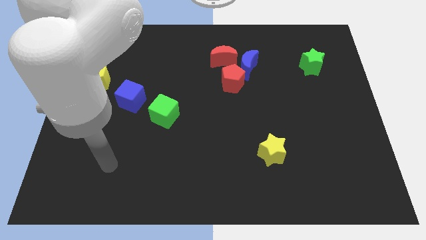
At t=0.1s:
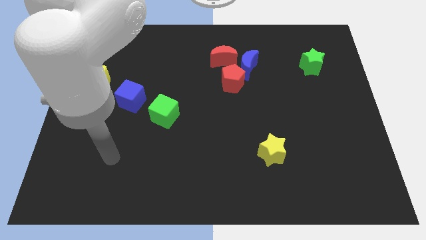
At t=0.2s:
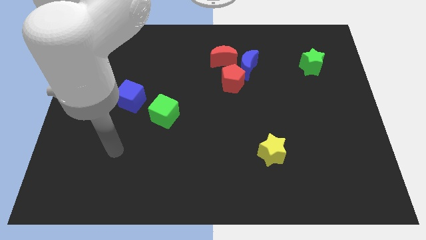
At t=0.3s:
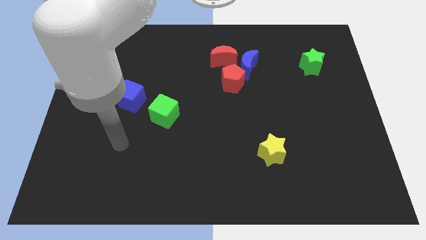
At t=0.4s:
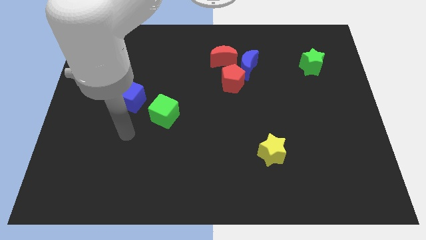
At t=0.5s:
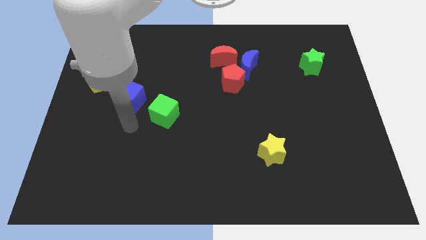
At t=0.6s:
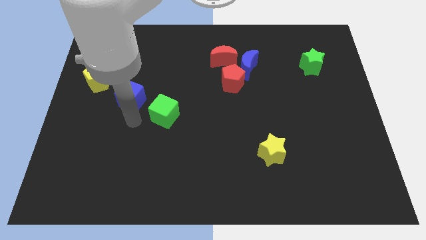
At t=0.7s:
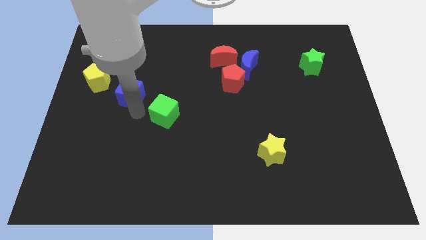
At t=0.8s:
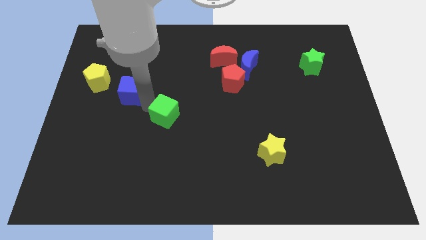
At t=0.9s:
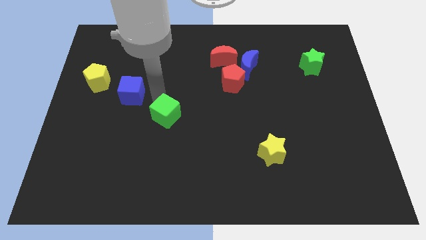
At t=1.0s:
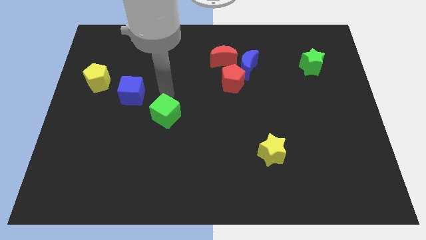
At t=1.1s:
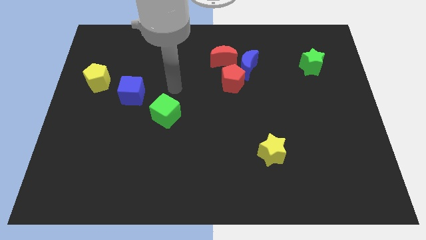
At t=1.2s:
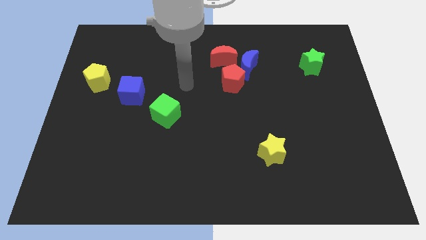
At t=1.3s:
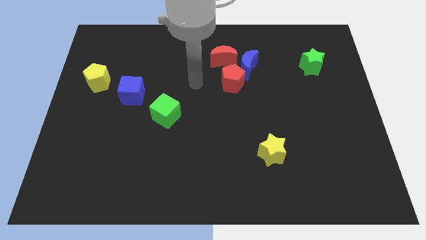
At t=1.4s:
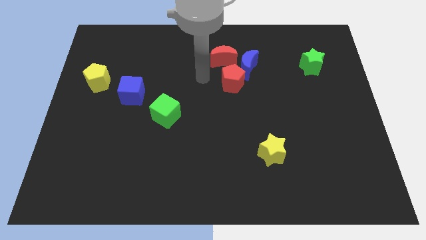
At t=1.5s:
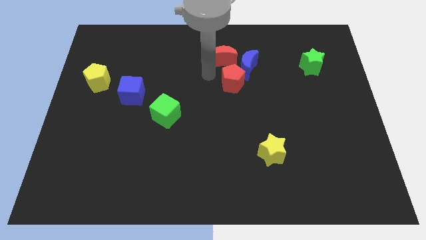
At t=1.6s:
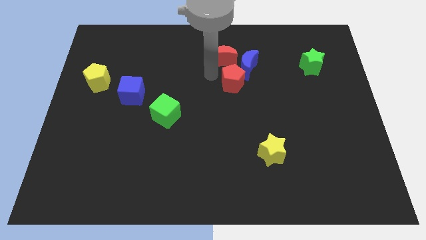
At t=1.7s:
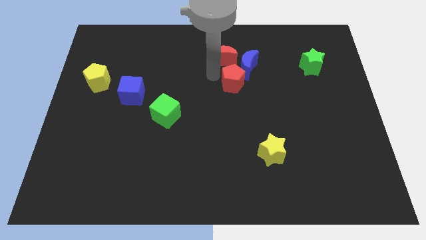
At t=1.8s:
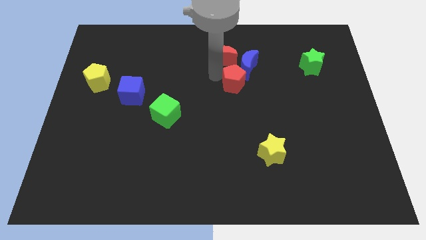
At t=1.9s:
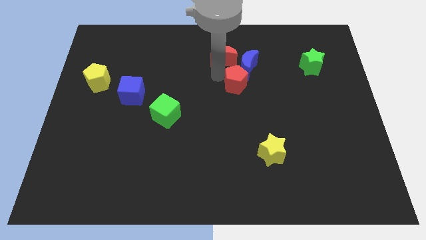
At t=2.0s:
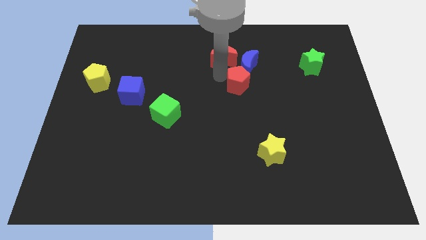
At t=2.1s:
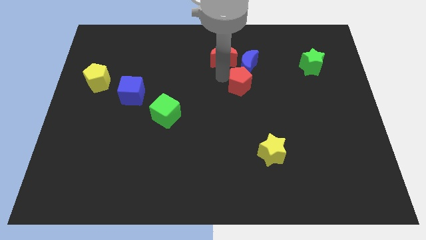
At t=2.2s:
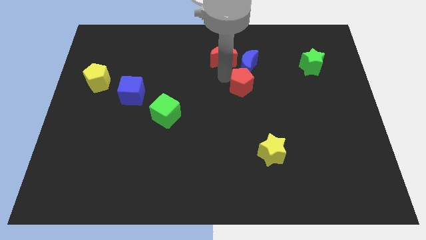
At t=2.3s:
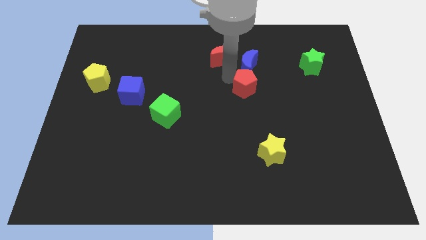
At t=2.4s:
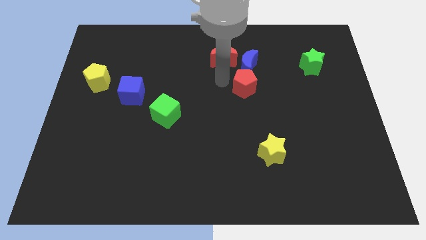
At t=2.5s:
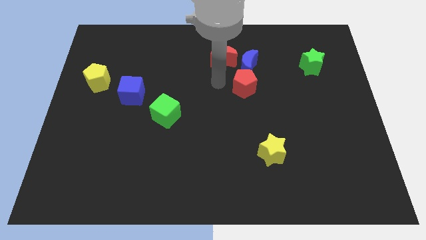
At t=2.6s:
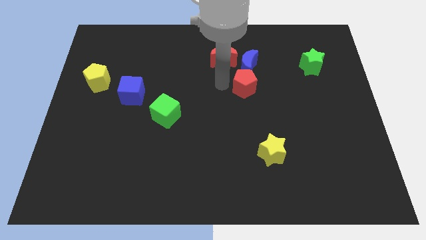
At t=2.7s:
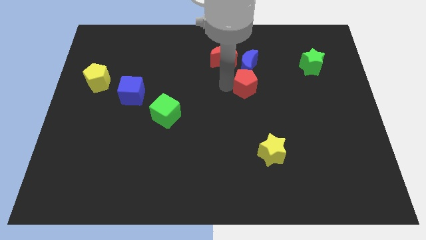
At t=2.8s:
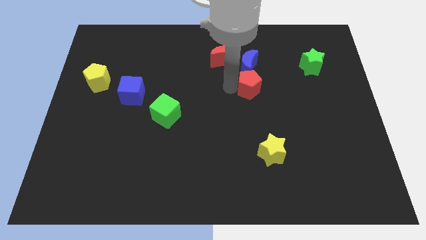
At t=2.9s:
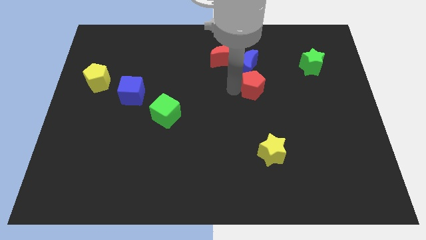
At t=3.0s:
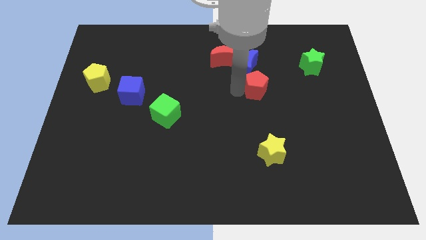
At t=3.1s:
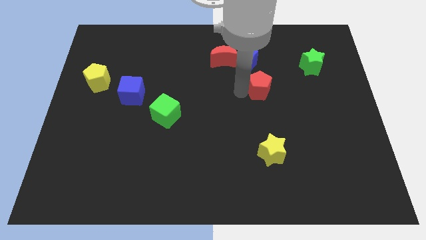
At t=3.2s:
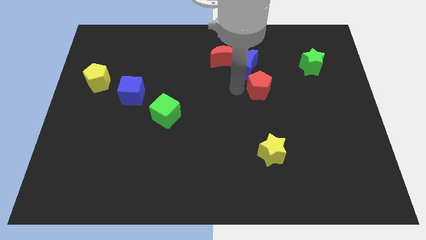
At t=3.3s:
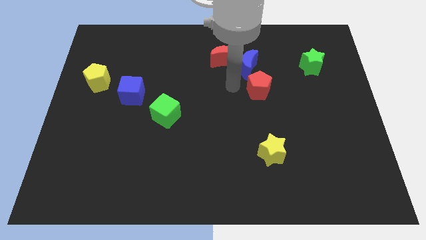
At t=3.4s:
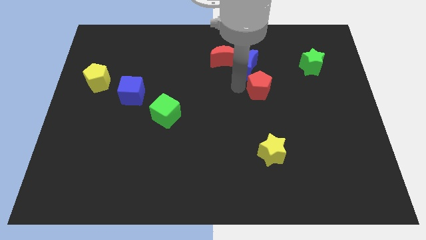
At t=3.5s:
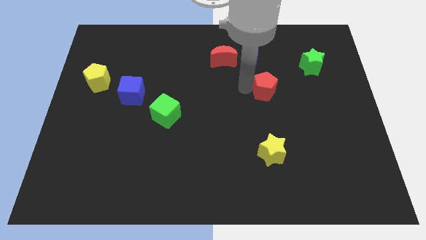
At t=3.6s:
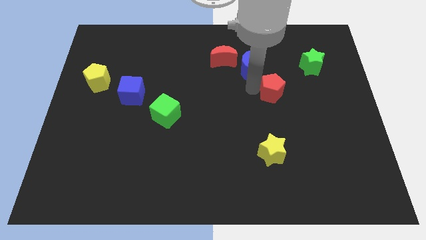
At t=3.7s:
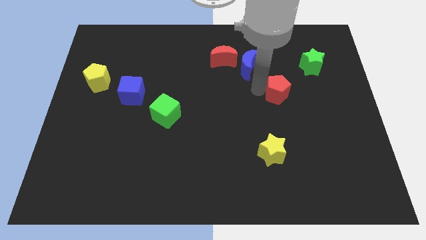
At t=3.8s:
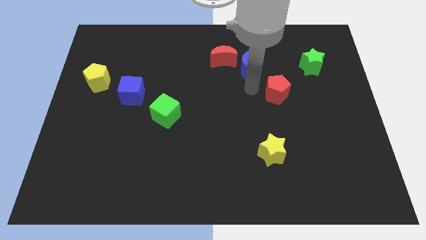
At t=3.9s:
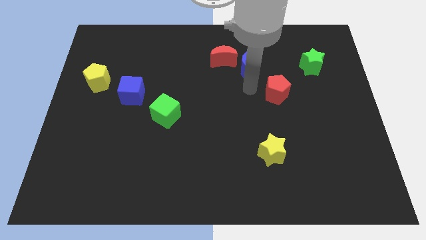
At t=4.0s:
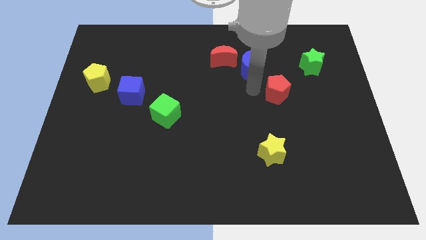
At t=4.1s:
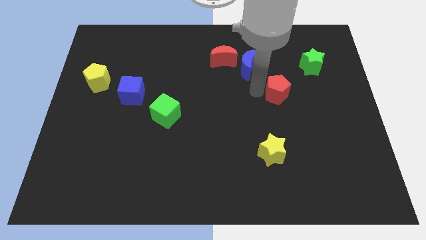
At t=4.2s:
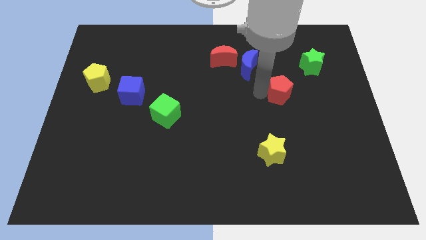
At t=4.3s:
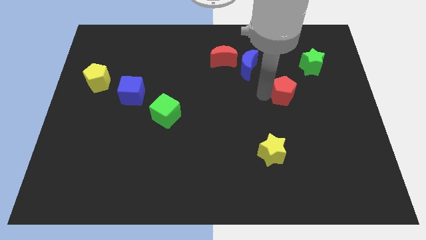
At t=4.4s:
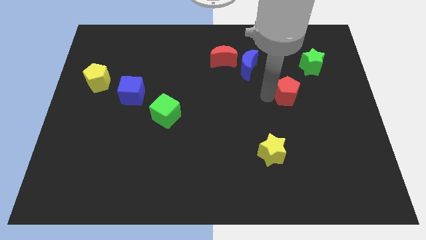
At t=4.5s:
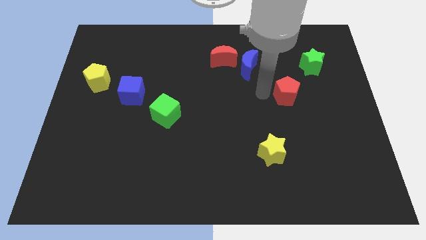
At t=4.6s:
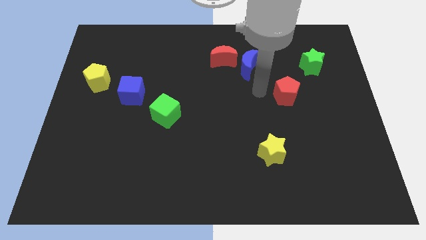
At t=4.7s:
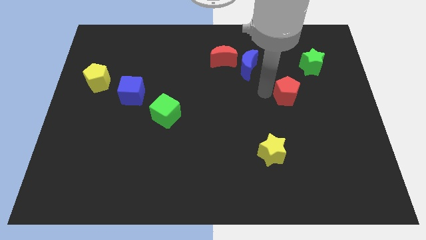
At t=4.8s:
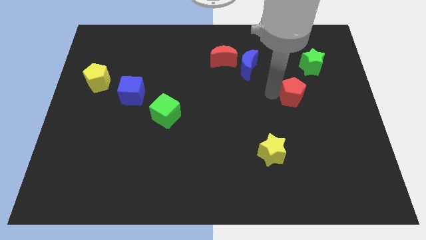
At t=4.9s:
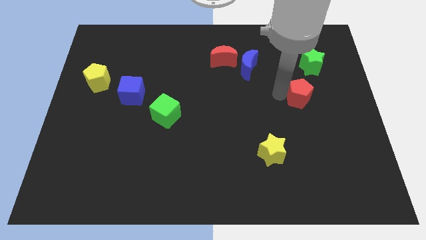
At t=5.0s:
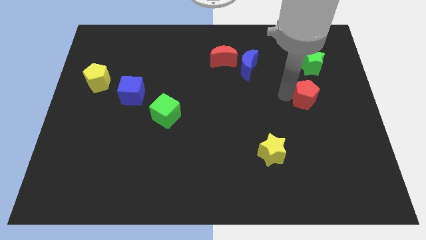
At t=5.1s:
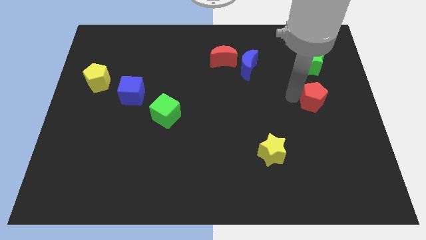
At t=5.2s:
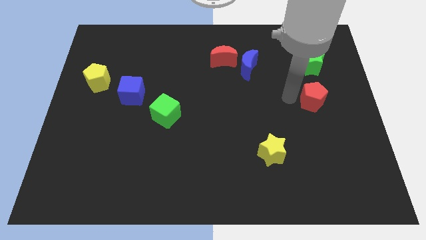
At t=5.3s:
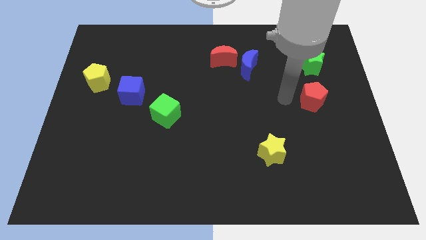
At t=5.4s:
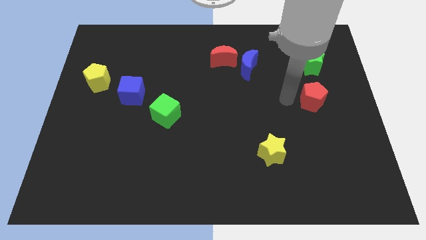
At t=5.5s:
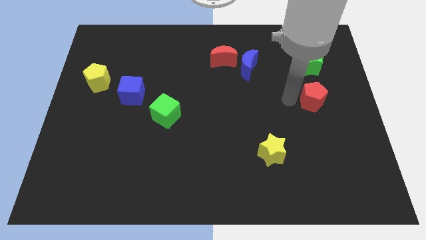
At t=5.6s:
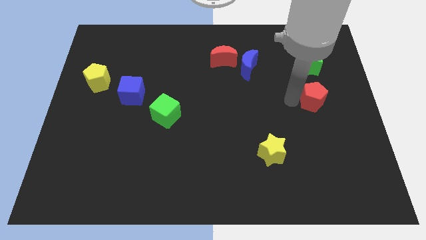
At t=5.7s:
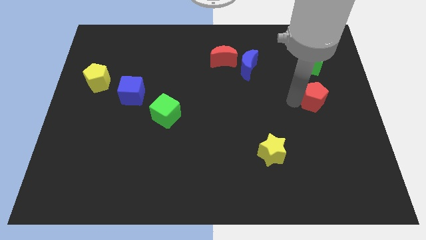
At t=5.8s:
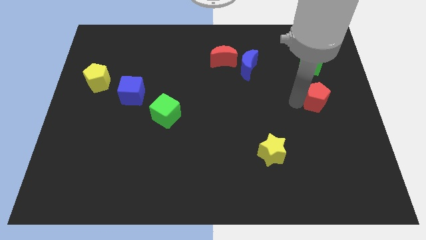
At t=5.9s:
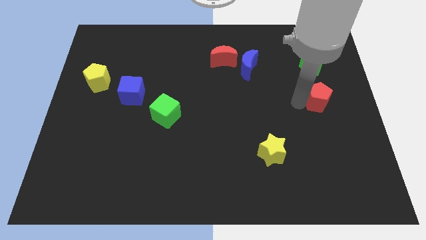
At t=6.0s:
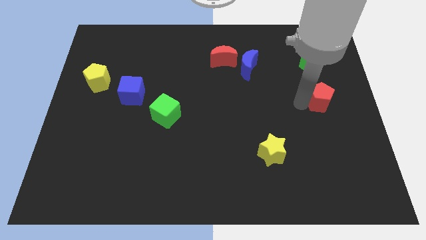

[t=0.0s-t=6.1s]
move the red pentagon to the right side

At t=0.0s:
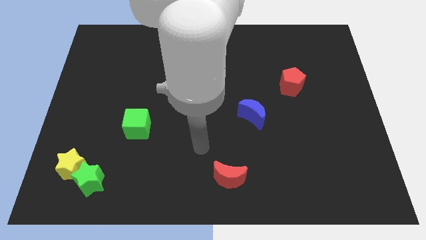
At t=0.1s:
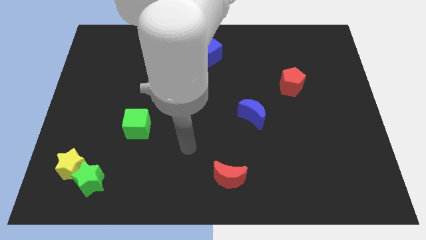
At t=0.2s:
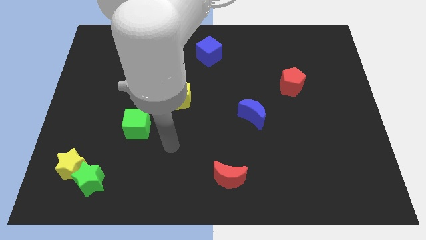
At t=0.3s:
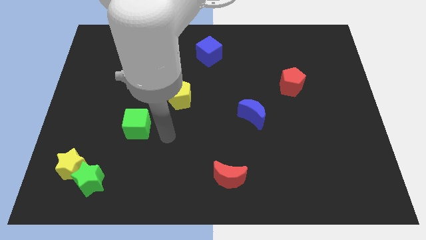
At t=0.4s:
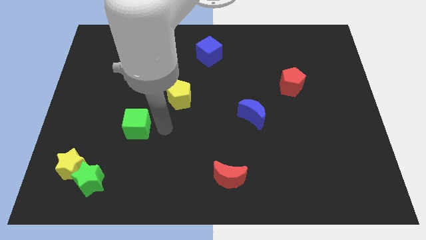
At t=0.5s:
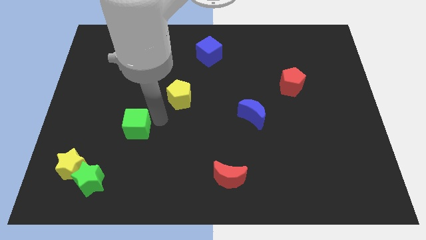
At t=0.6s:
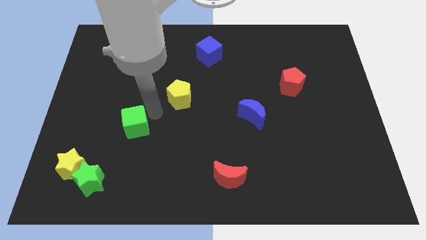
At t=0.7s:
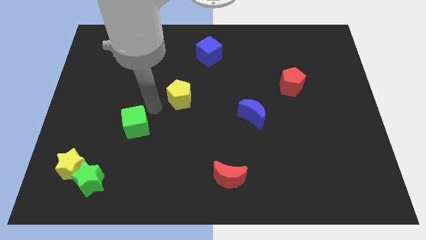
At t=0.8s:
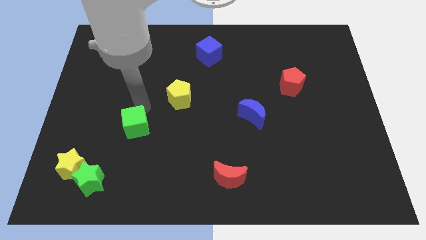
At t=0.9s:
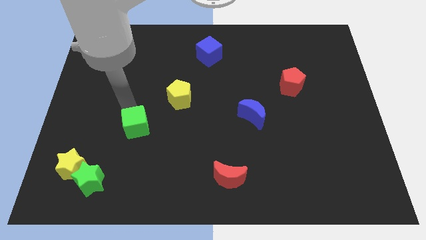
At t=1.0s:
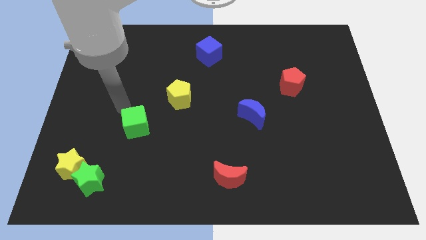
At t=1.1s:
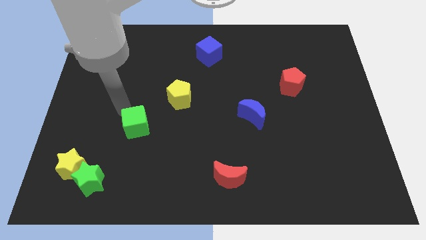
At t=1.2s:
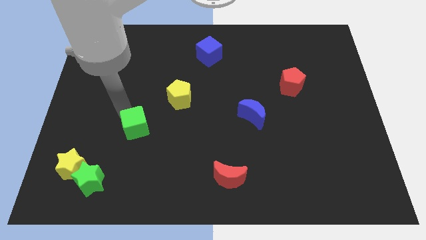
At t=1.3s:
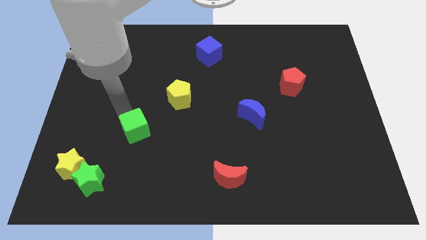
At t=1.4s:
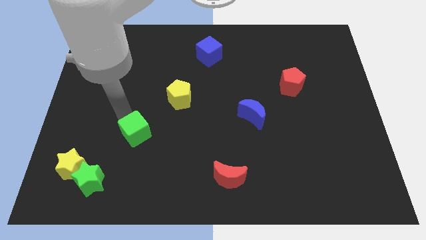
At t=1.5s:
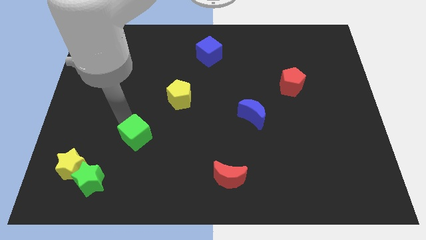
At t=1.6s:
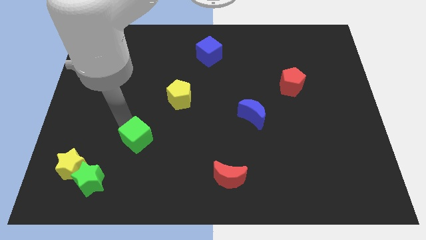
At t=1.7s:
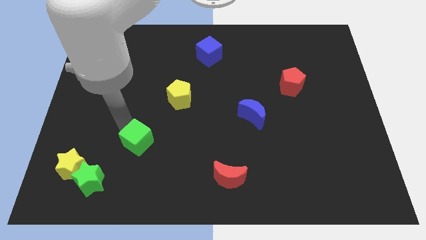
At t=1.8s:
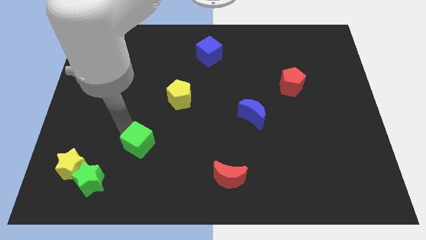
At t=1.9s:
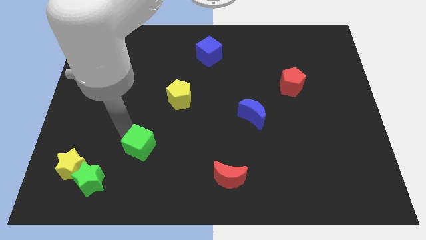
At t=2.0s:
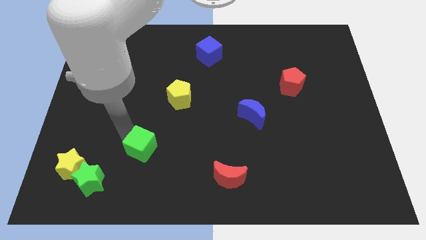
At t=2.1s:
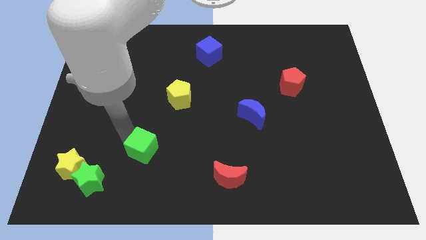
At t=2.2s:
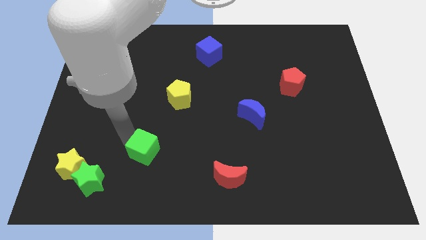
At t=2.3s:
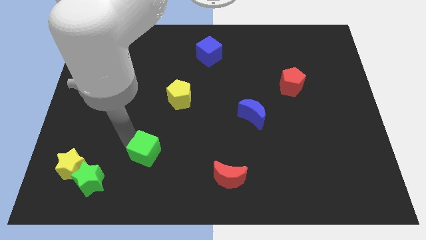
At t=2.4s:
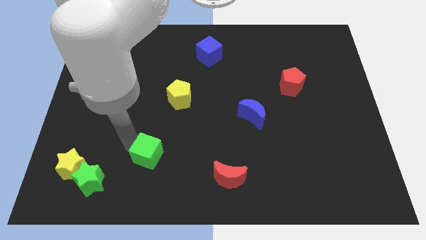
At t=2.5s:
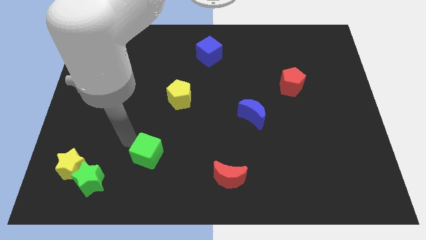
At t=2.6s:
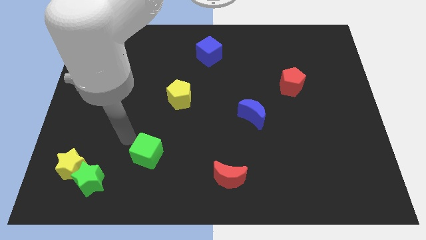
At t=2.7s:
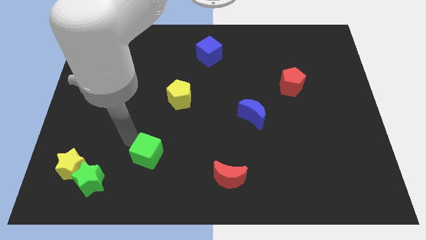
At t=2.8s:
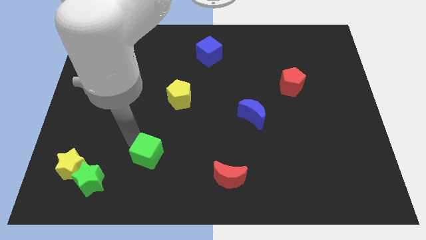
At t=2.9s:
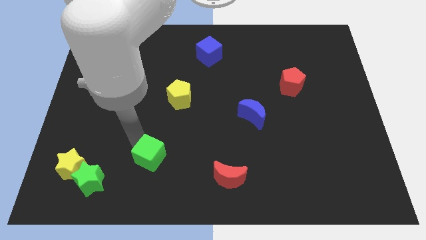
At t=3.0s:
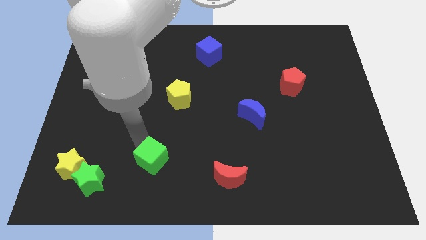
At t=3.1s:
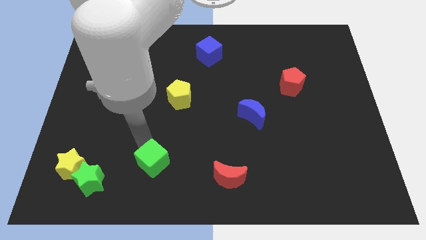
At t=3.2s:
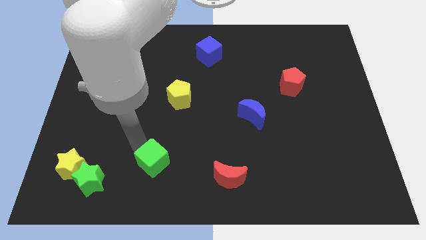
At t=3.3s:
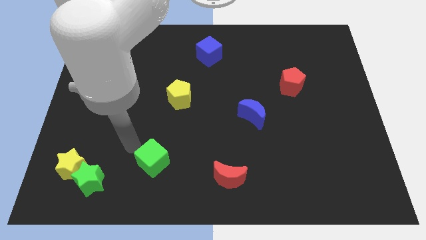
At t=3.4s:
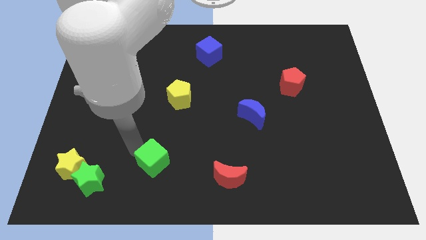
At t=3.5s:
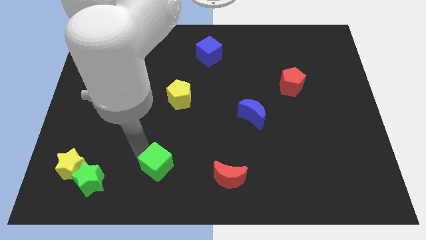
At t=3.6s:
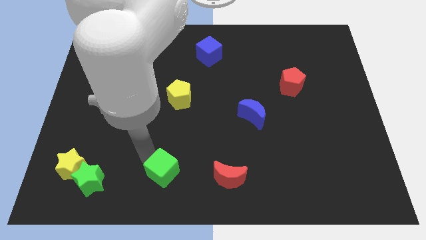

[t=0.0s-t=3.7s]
slide the green cube to the bottom
